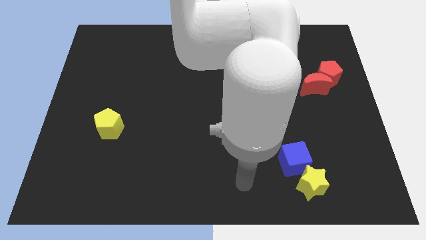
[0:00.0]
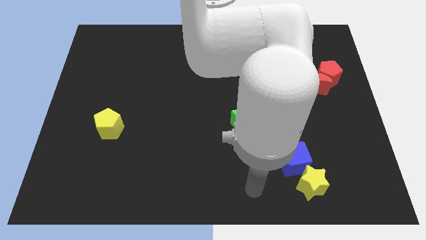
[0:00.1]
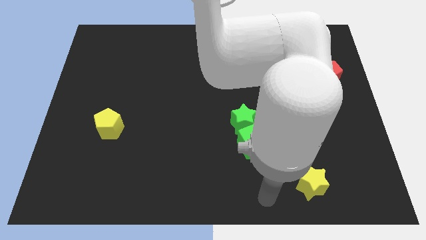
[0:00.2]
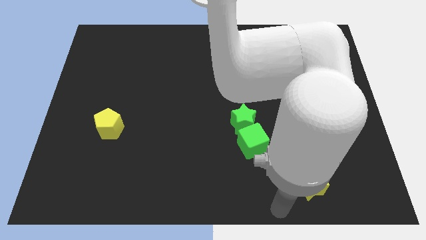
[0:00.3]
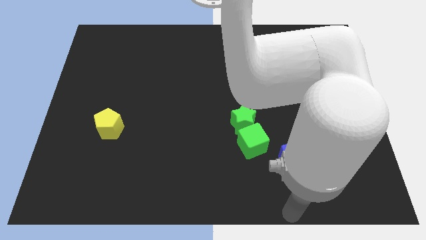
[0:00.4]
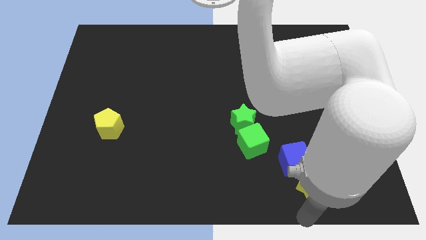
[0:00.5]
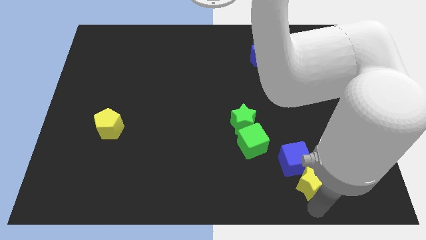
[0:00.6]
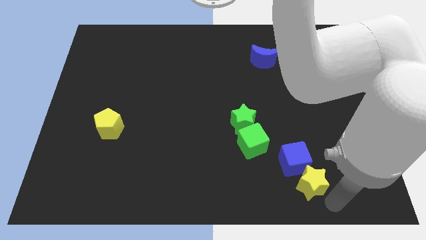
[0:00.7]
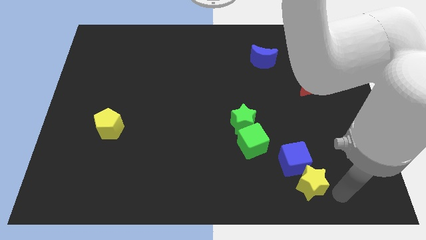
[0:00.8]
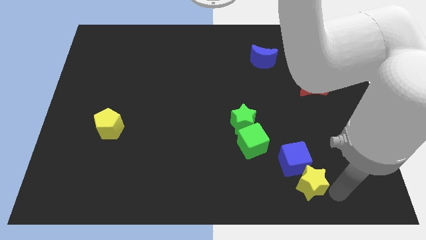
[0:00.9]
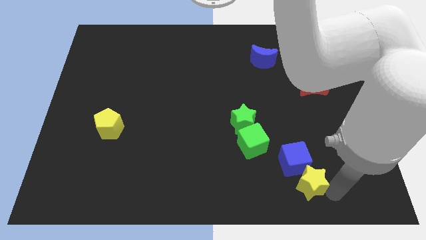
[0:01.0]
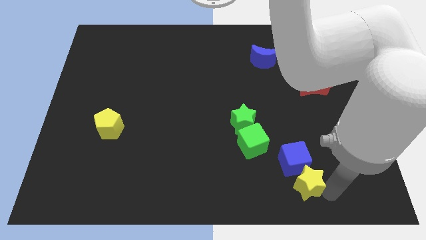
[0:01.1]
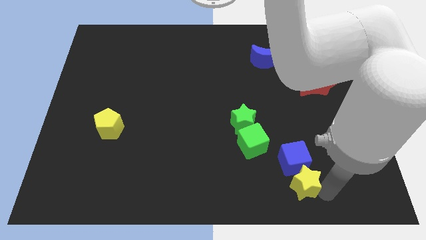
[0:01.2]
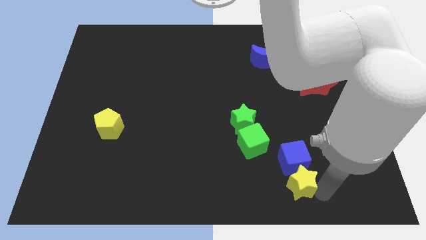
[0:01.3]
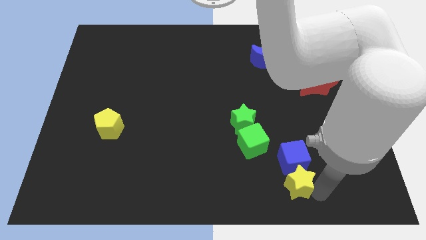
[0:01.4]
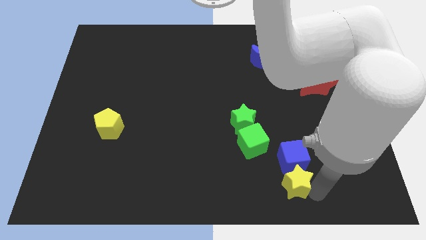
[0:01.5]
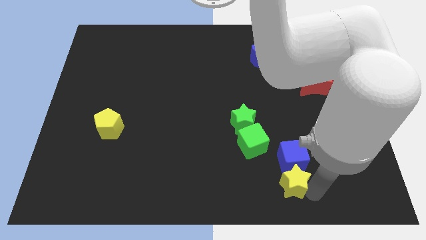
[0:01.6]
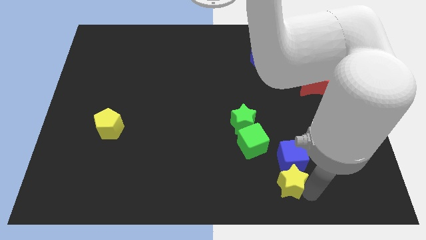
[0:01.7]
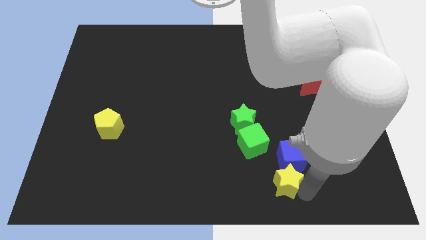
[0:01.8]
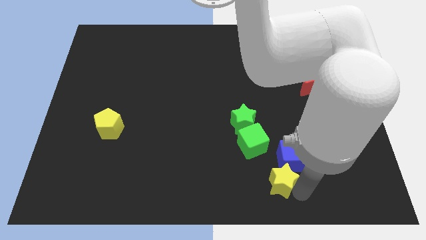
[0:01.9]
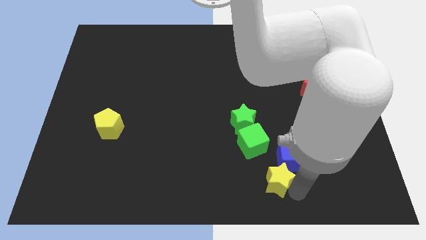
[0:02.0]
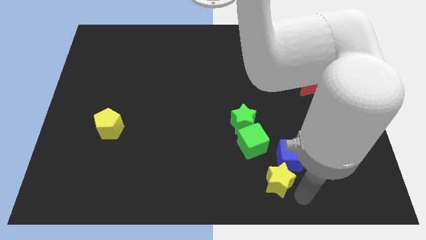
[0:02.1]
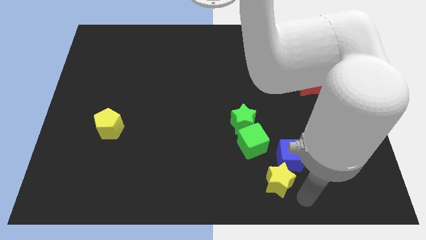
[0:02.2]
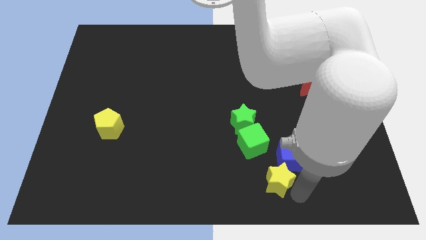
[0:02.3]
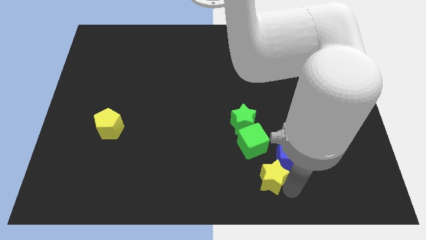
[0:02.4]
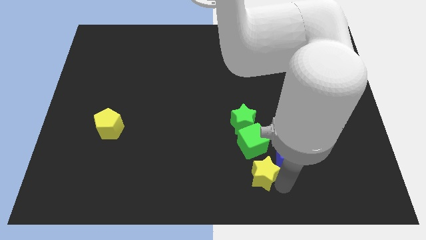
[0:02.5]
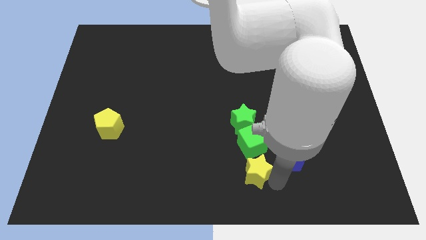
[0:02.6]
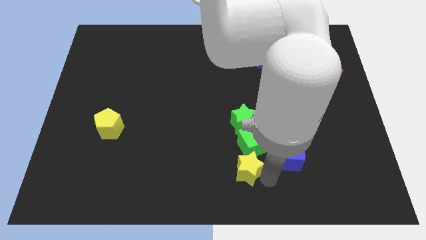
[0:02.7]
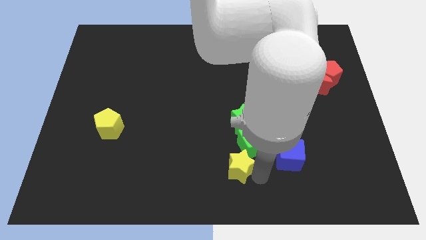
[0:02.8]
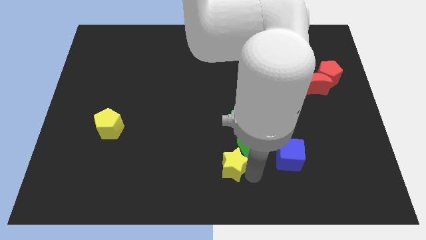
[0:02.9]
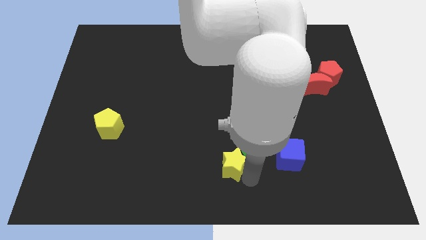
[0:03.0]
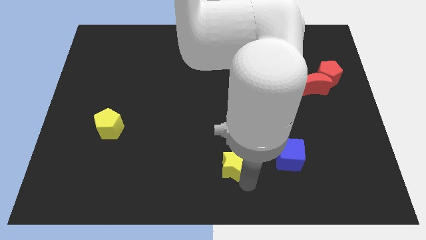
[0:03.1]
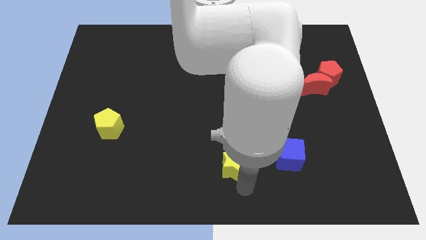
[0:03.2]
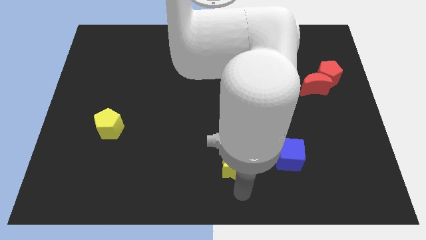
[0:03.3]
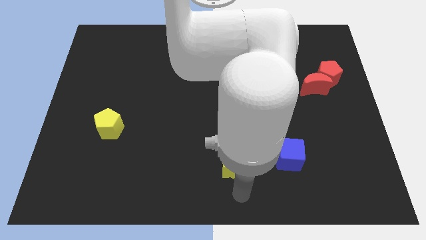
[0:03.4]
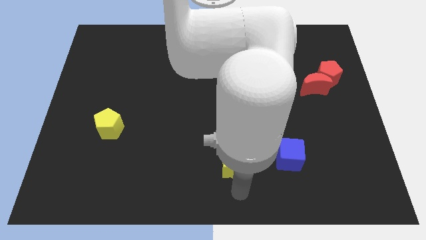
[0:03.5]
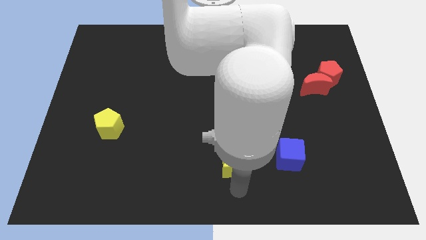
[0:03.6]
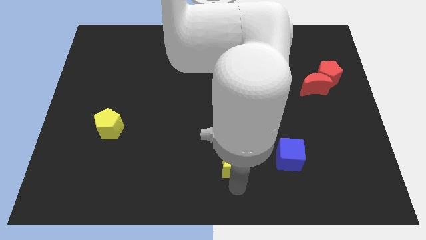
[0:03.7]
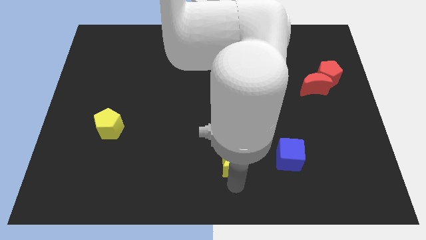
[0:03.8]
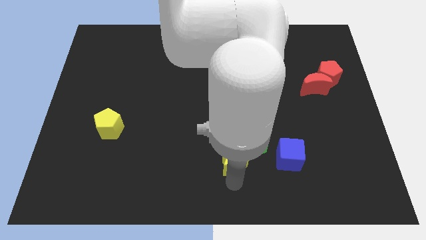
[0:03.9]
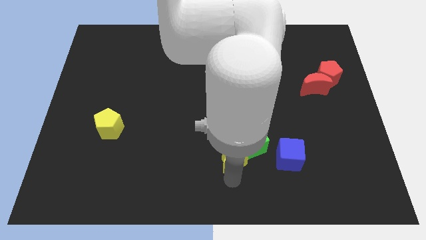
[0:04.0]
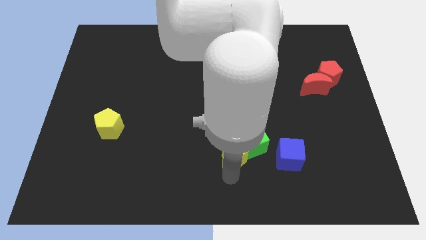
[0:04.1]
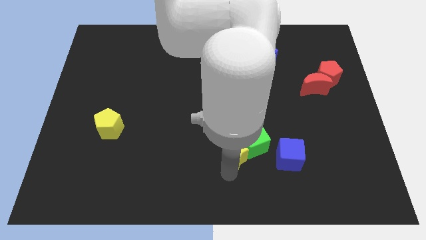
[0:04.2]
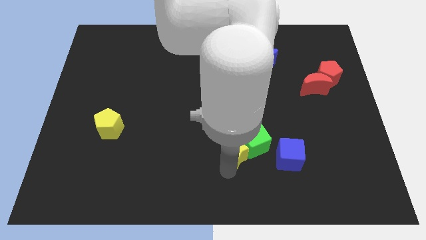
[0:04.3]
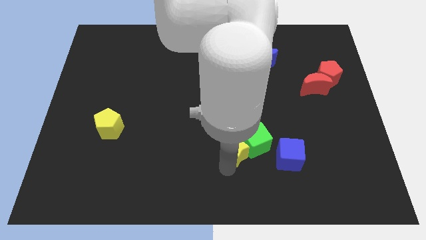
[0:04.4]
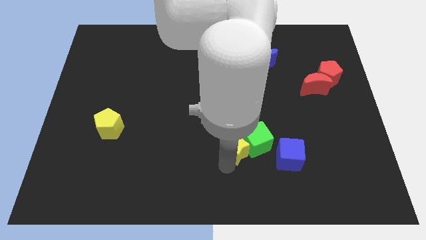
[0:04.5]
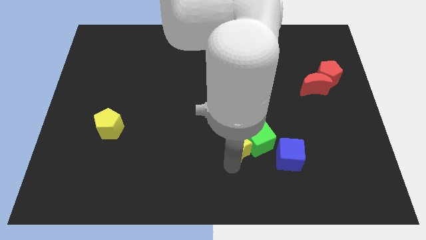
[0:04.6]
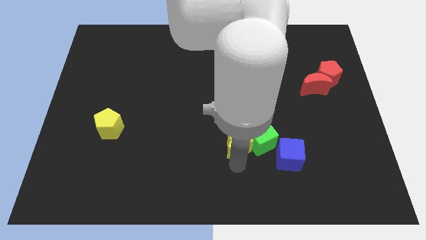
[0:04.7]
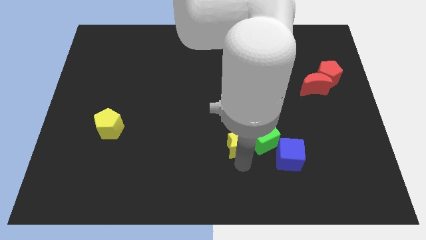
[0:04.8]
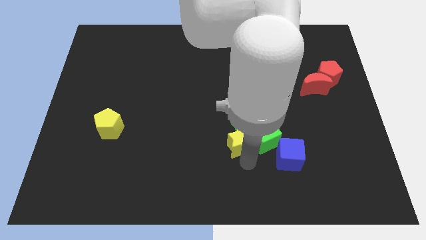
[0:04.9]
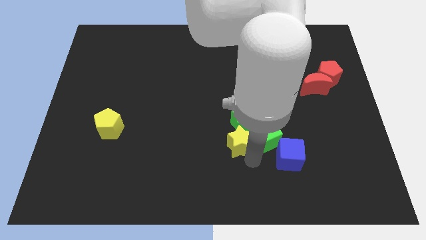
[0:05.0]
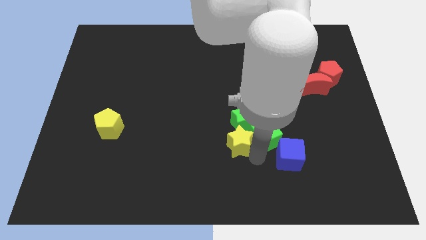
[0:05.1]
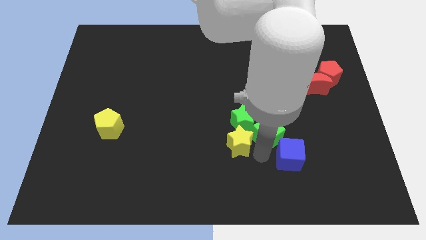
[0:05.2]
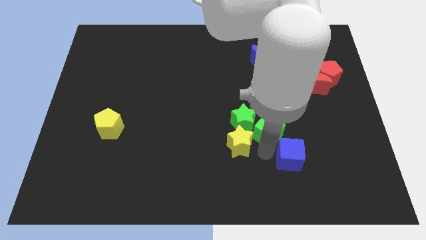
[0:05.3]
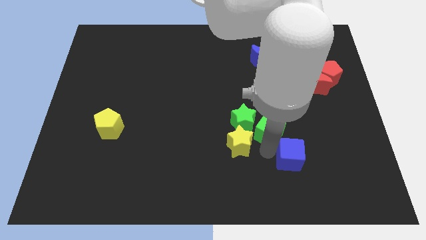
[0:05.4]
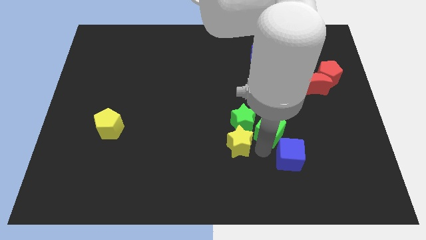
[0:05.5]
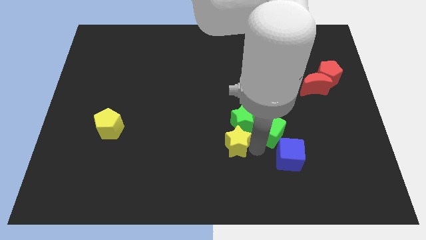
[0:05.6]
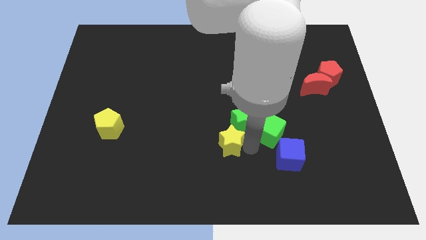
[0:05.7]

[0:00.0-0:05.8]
push the yellow star to the middle of the board
